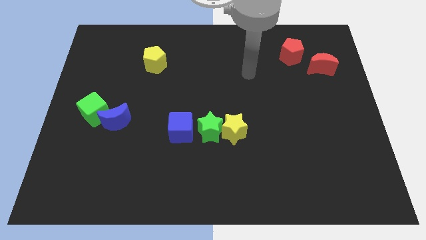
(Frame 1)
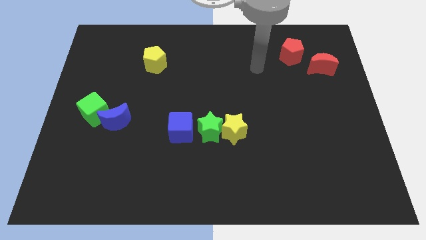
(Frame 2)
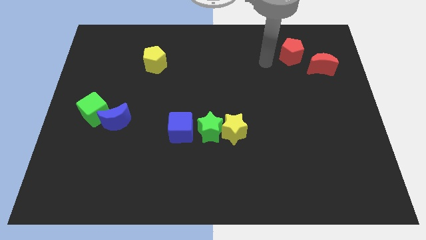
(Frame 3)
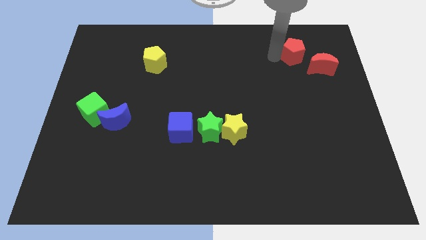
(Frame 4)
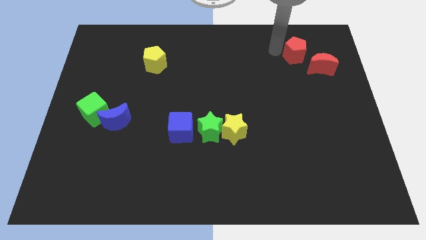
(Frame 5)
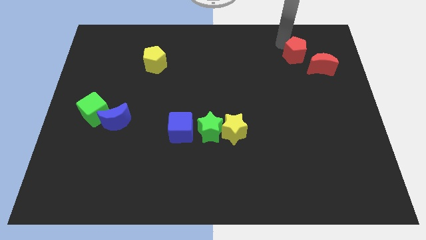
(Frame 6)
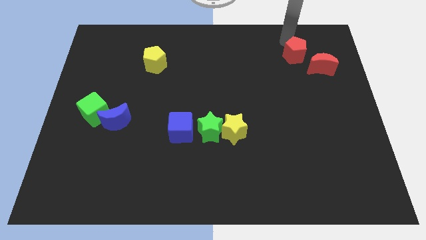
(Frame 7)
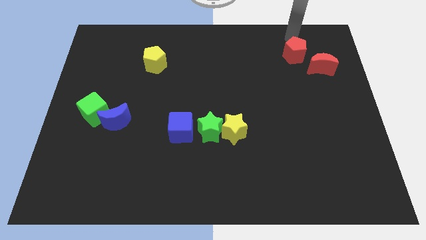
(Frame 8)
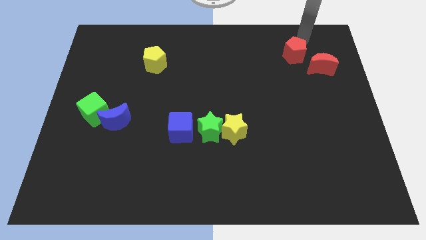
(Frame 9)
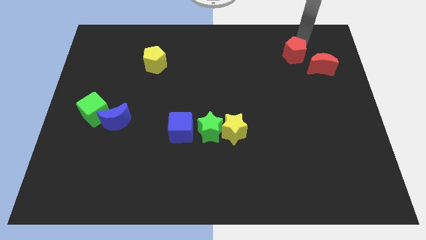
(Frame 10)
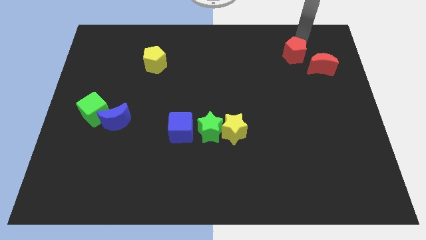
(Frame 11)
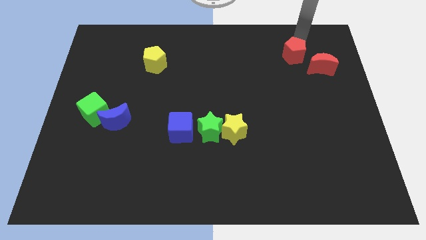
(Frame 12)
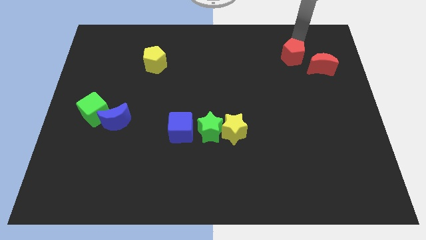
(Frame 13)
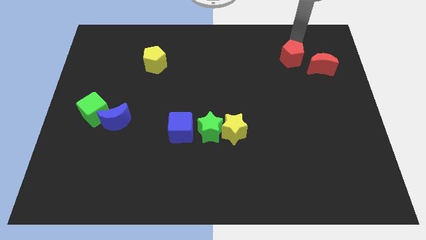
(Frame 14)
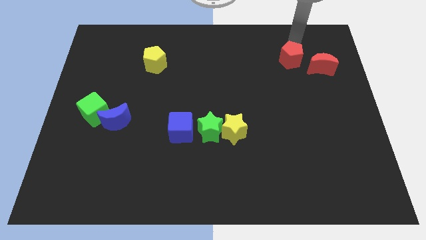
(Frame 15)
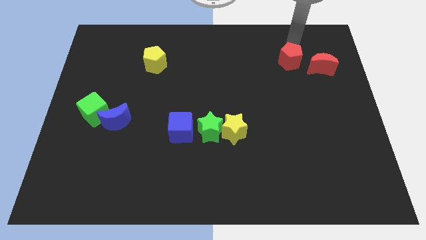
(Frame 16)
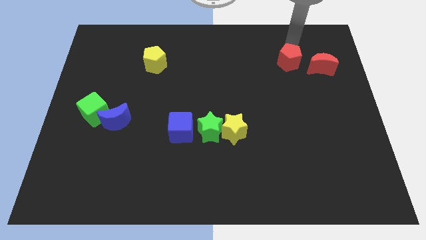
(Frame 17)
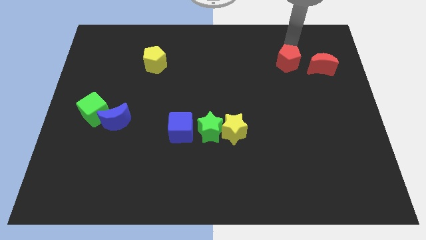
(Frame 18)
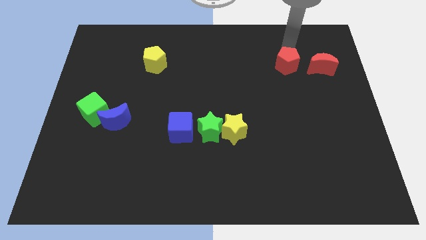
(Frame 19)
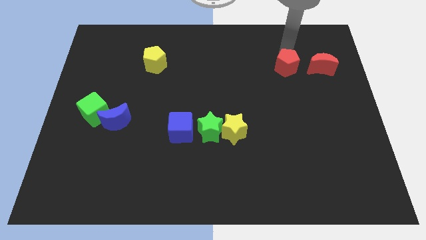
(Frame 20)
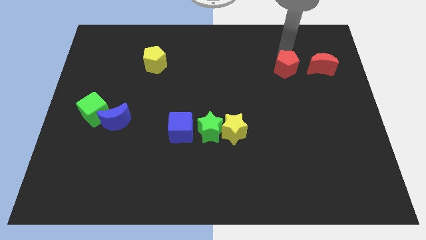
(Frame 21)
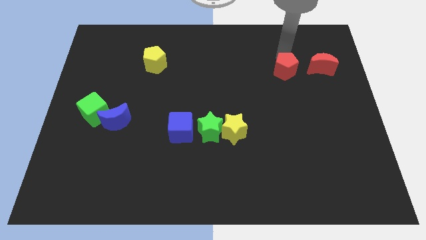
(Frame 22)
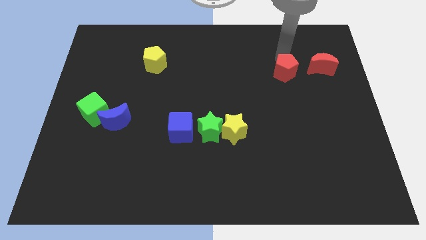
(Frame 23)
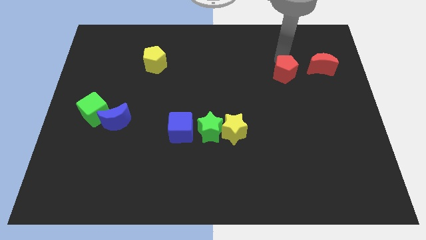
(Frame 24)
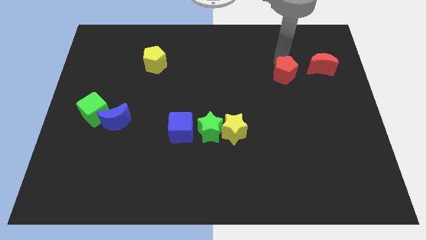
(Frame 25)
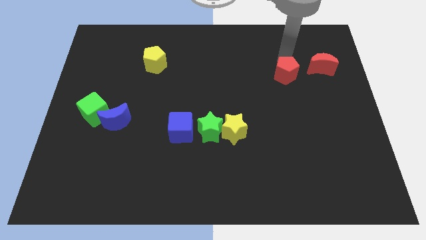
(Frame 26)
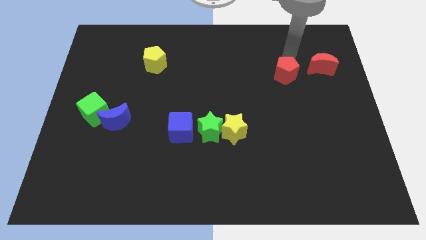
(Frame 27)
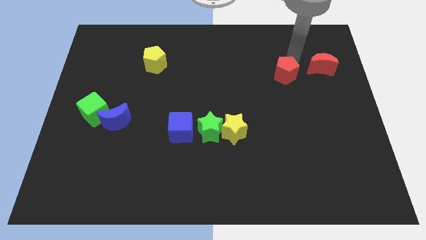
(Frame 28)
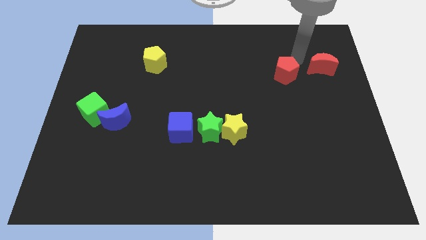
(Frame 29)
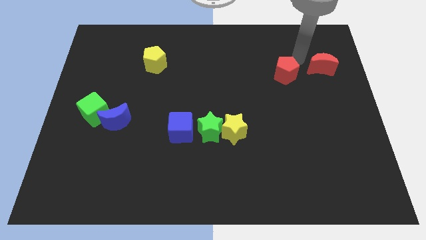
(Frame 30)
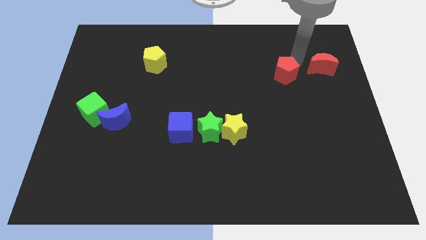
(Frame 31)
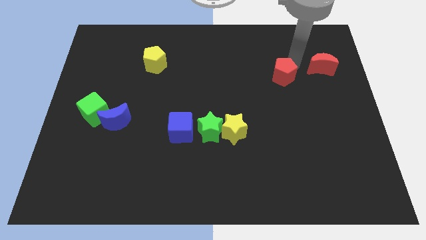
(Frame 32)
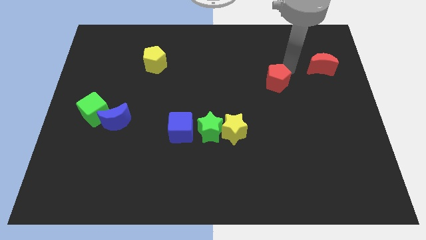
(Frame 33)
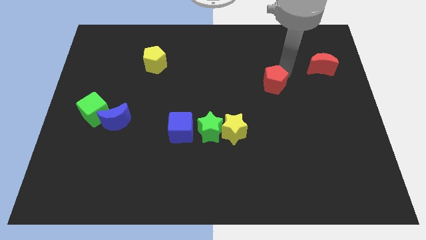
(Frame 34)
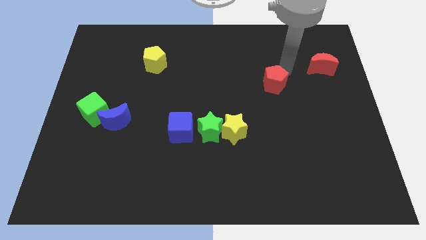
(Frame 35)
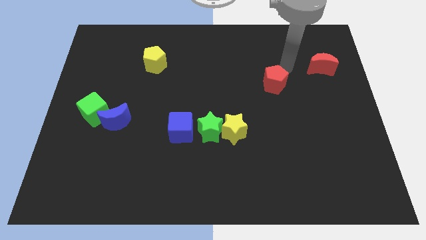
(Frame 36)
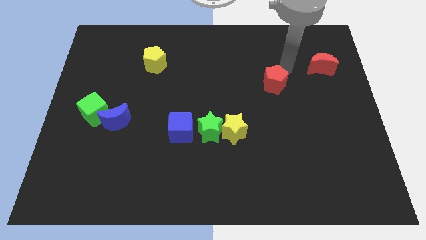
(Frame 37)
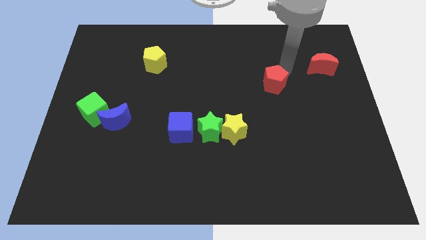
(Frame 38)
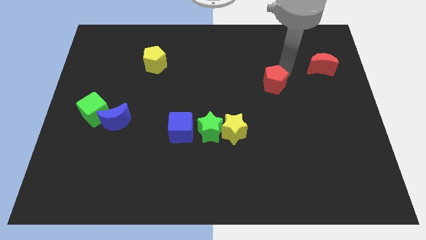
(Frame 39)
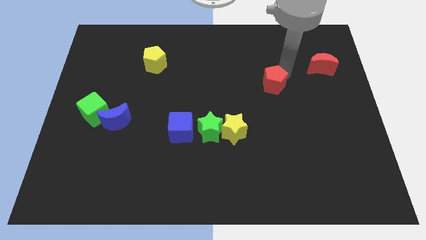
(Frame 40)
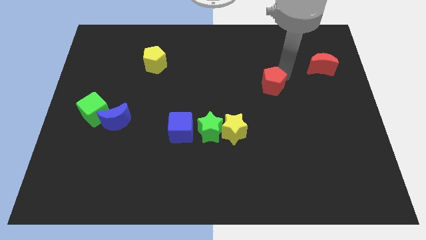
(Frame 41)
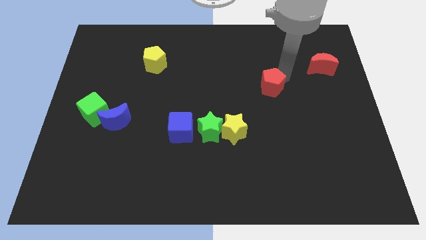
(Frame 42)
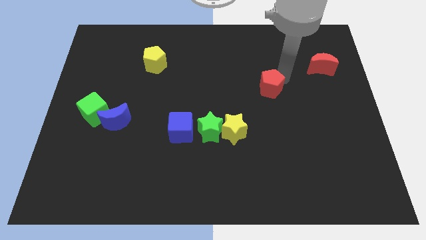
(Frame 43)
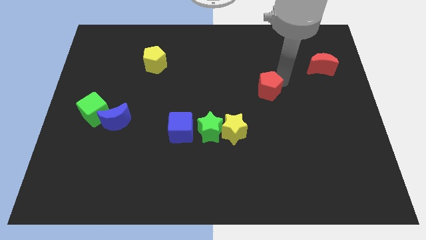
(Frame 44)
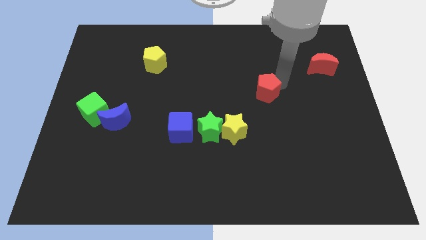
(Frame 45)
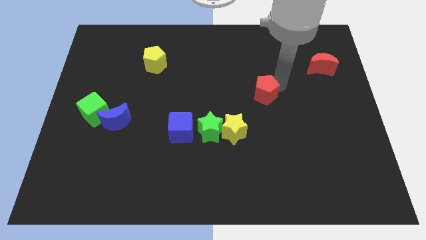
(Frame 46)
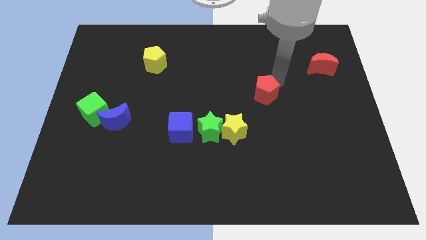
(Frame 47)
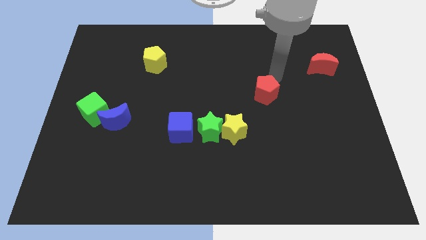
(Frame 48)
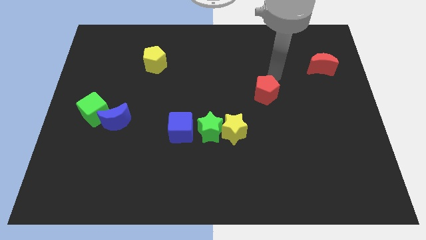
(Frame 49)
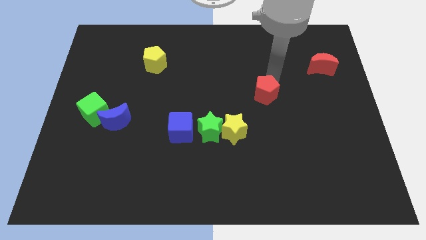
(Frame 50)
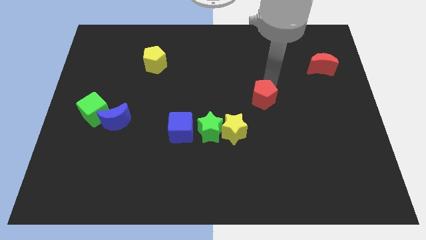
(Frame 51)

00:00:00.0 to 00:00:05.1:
push the red pentagon diagonally up and to the right of the yellow star

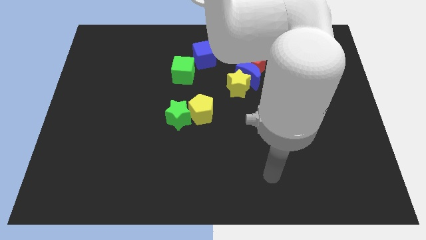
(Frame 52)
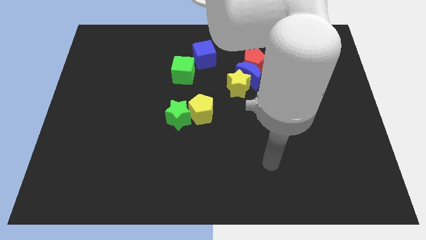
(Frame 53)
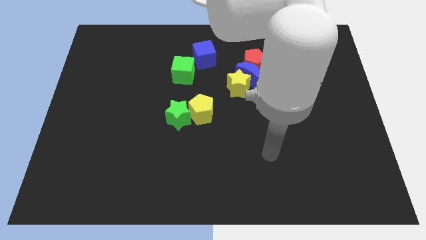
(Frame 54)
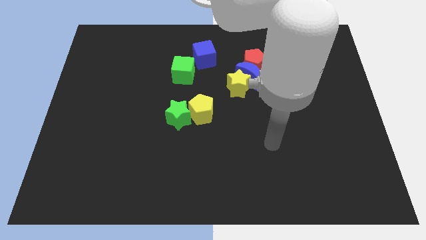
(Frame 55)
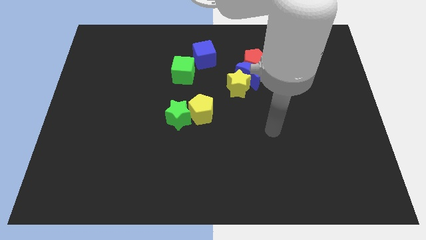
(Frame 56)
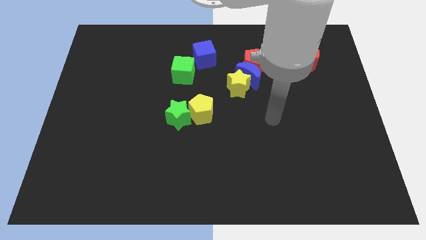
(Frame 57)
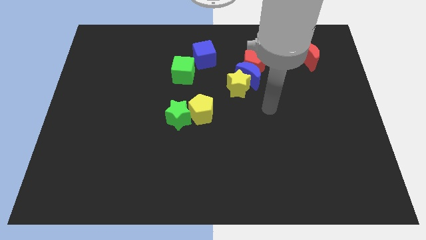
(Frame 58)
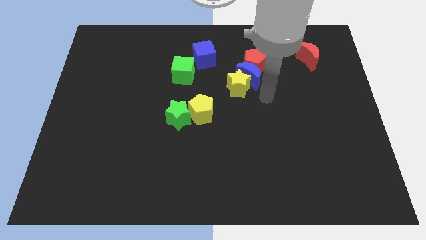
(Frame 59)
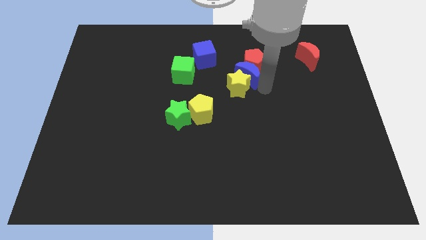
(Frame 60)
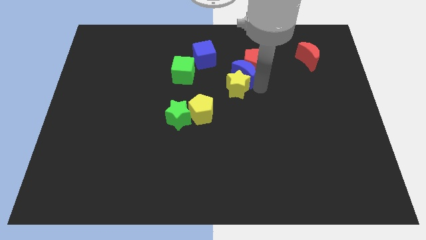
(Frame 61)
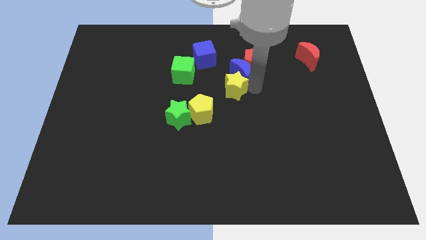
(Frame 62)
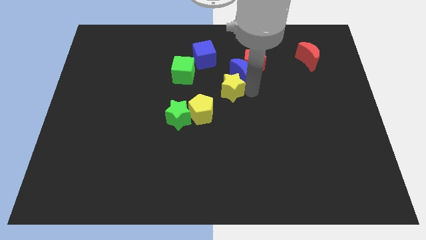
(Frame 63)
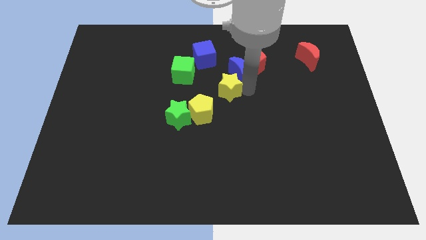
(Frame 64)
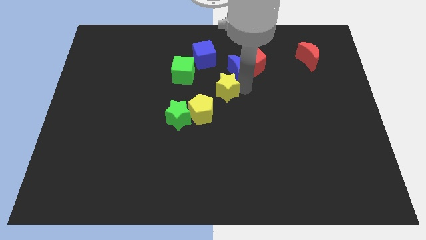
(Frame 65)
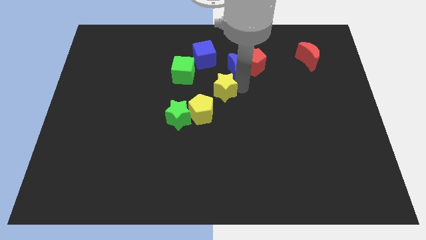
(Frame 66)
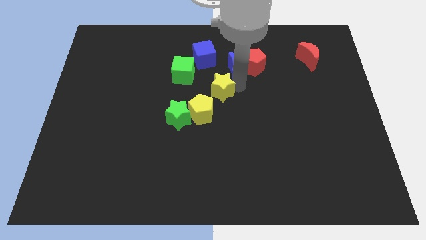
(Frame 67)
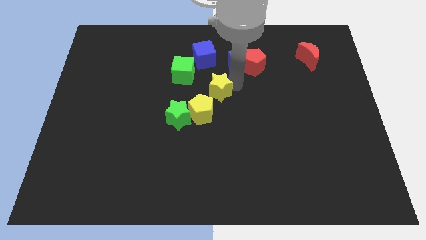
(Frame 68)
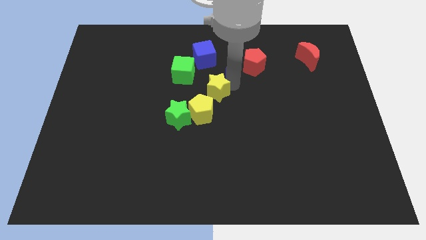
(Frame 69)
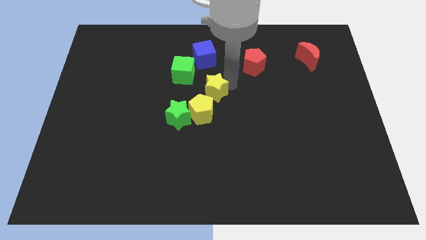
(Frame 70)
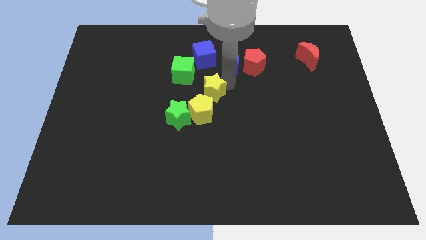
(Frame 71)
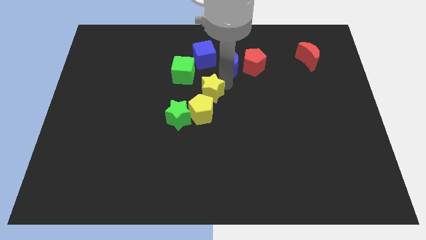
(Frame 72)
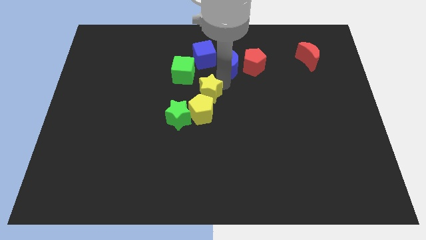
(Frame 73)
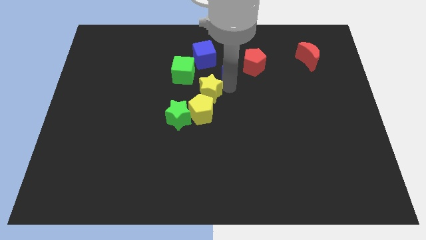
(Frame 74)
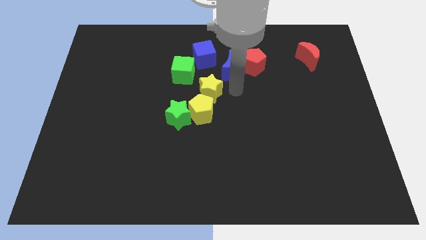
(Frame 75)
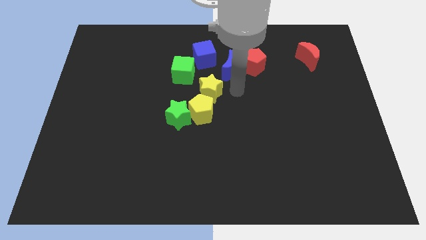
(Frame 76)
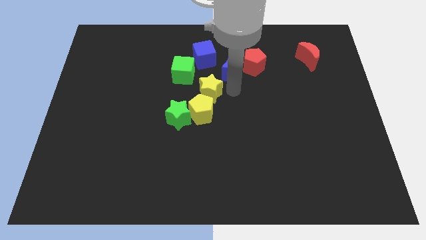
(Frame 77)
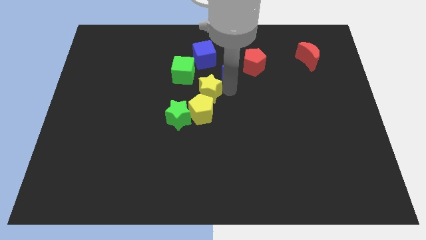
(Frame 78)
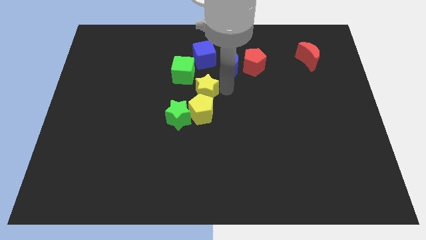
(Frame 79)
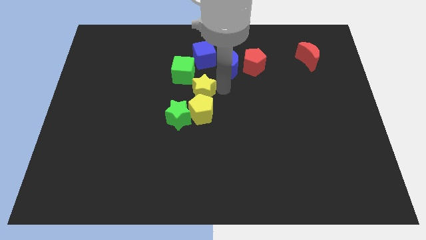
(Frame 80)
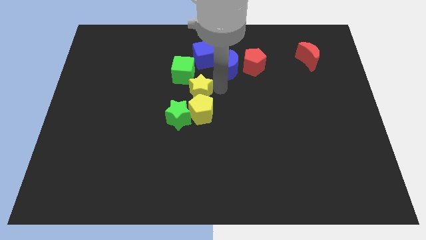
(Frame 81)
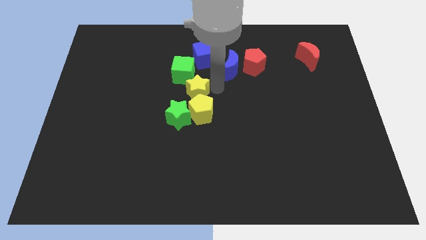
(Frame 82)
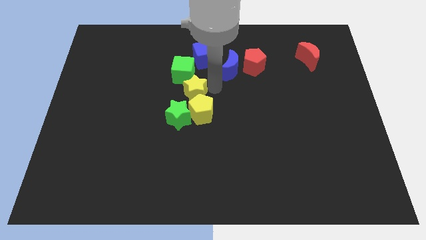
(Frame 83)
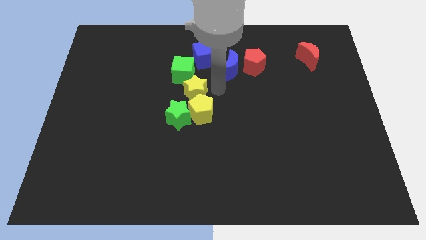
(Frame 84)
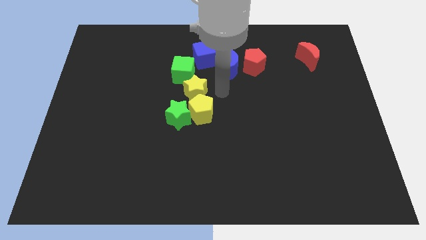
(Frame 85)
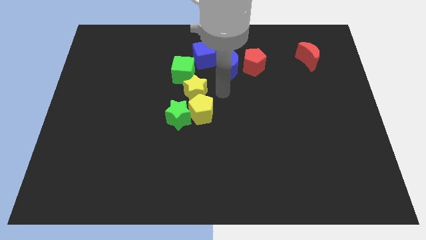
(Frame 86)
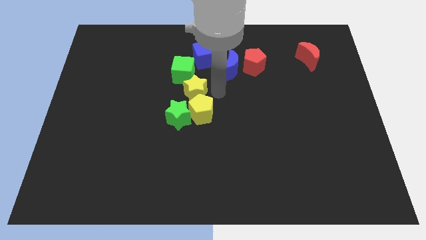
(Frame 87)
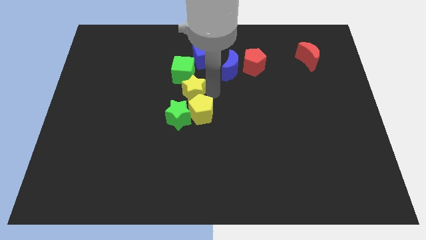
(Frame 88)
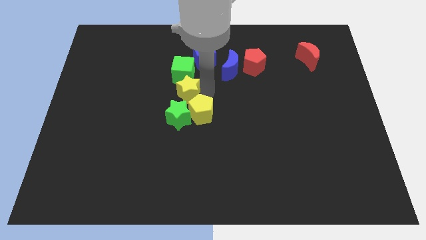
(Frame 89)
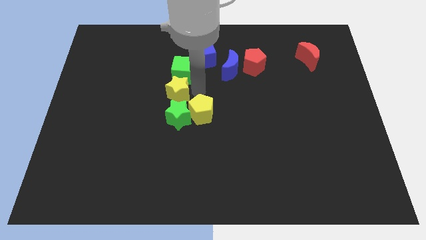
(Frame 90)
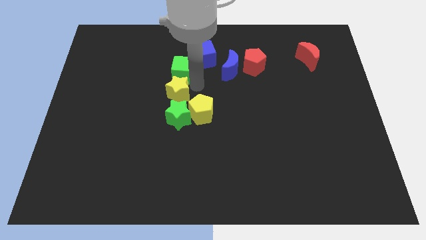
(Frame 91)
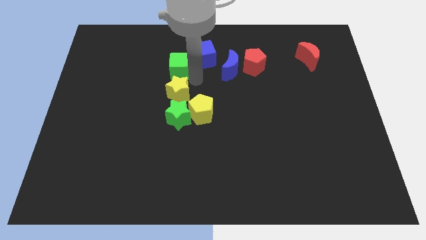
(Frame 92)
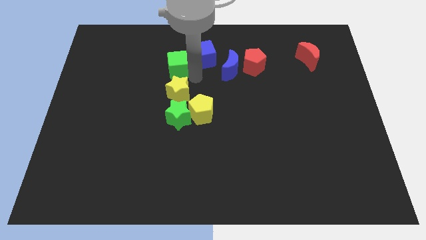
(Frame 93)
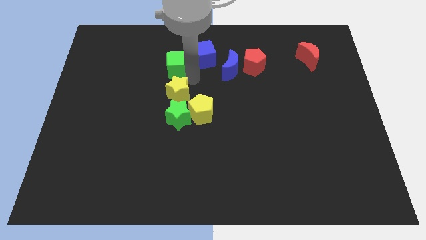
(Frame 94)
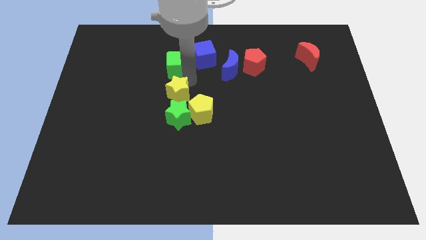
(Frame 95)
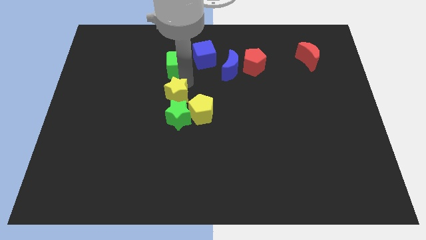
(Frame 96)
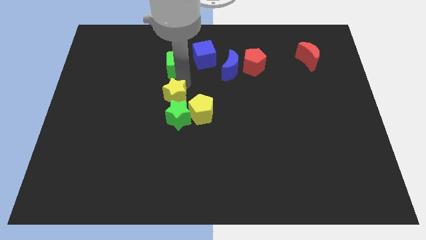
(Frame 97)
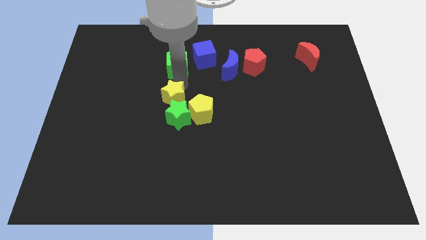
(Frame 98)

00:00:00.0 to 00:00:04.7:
move the yellow star just left of the yellow pentagon
